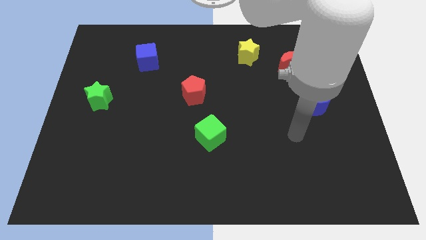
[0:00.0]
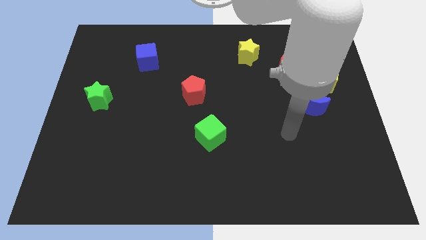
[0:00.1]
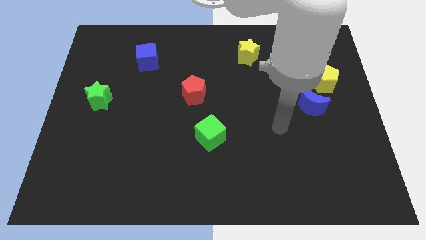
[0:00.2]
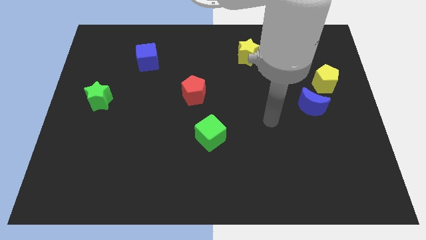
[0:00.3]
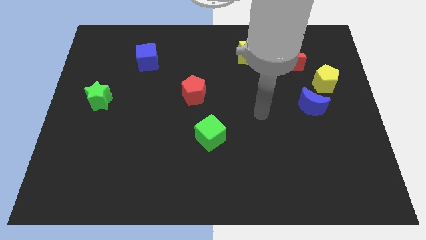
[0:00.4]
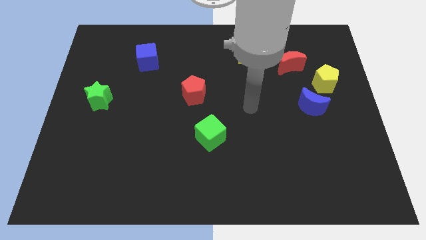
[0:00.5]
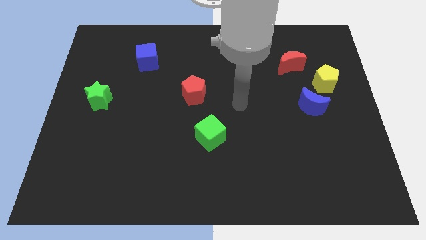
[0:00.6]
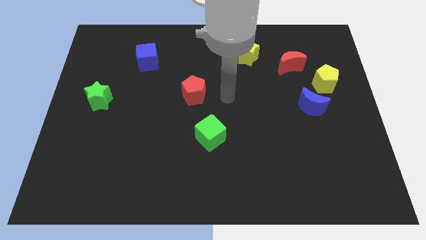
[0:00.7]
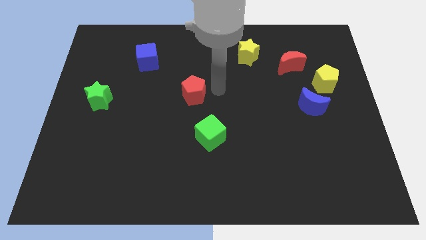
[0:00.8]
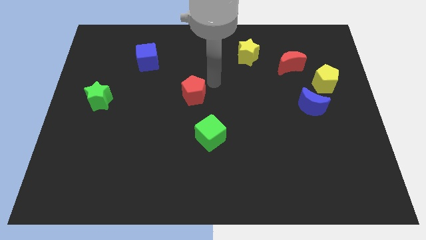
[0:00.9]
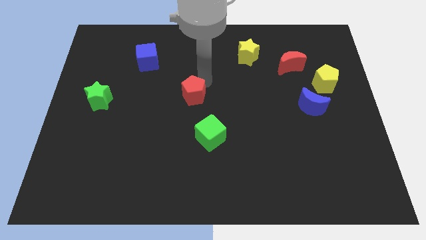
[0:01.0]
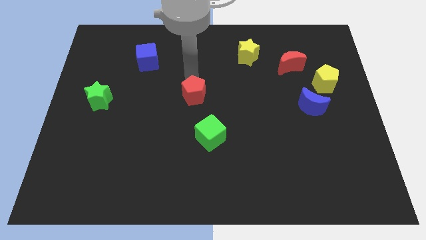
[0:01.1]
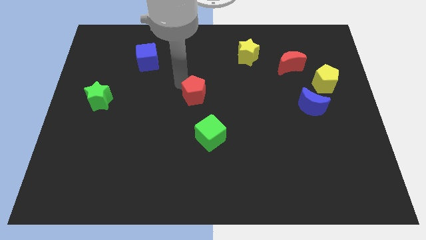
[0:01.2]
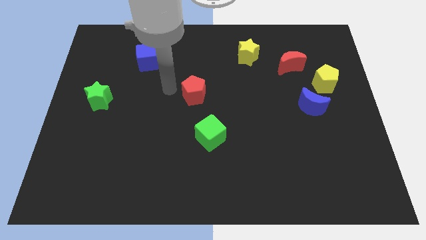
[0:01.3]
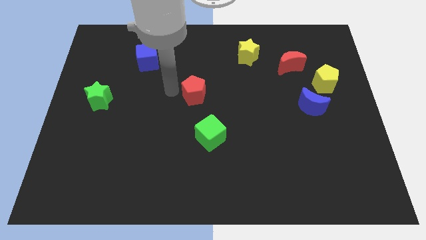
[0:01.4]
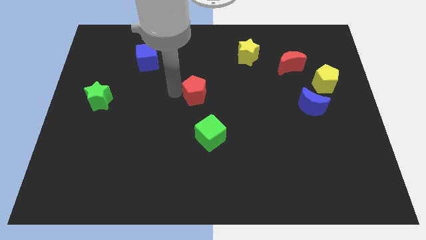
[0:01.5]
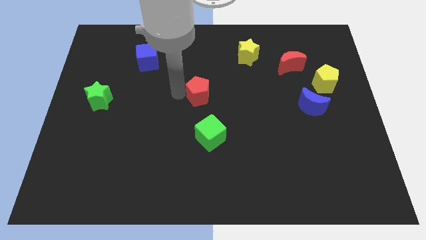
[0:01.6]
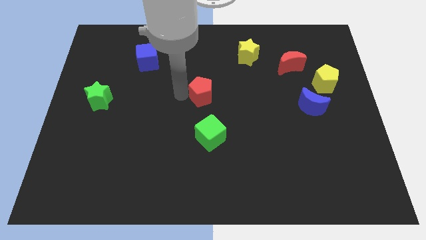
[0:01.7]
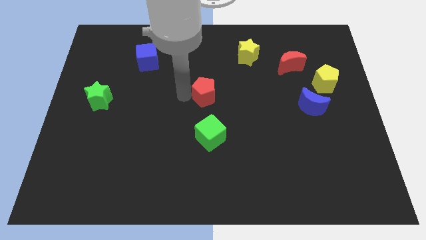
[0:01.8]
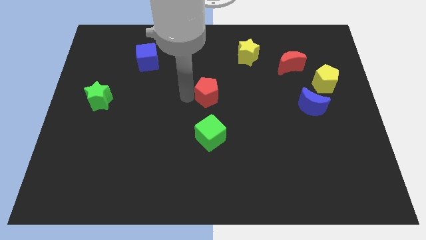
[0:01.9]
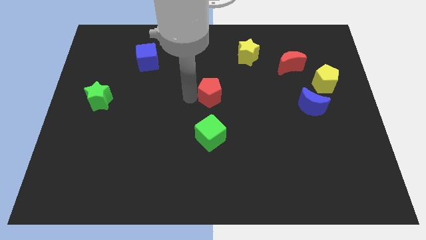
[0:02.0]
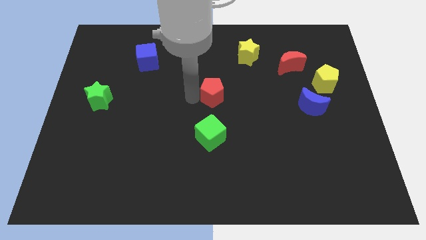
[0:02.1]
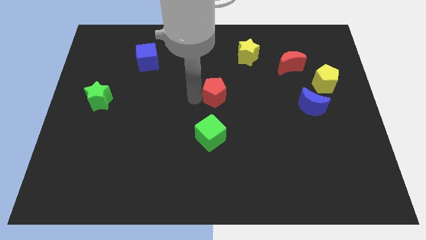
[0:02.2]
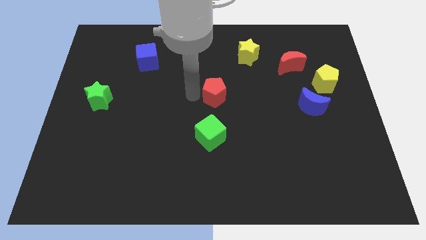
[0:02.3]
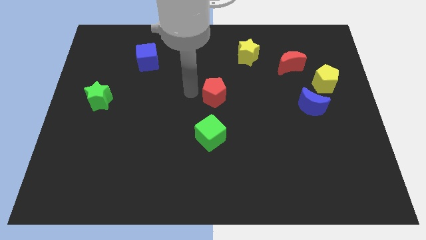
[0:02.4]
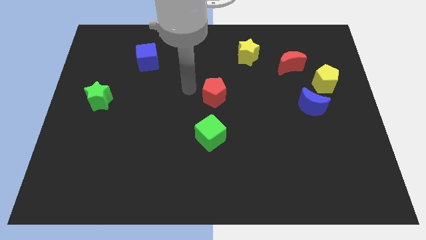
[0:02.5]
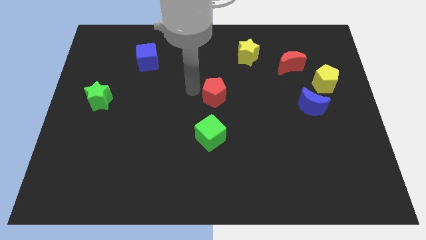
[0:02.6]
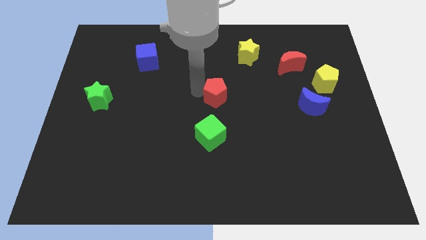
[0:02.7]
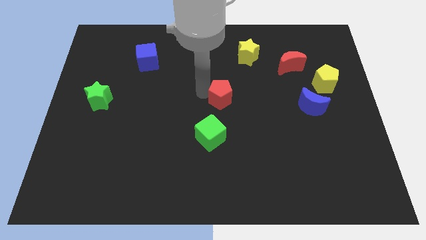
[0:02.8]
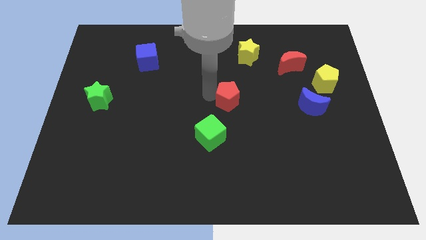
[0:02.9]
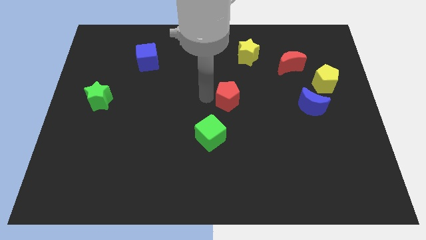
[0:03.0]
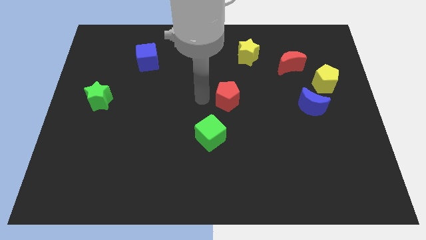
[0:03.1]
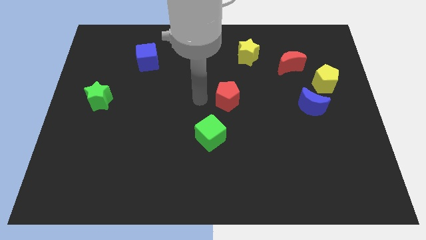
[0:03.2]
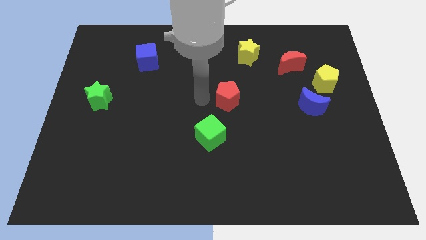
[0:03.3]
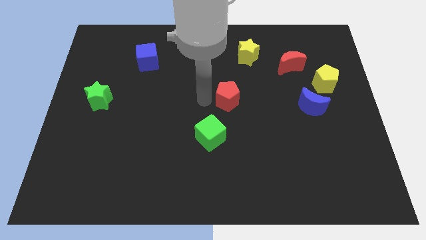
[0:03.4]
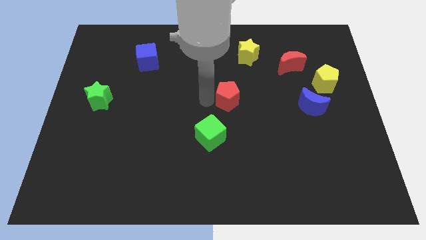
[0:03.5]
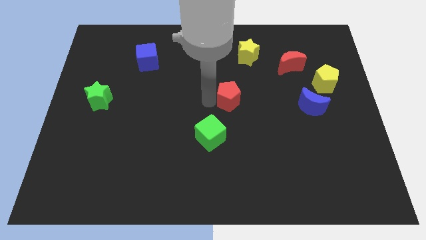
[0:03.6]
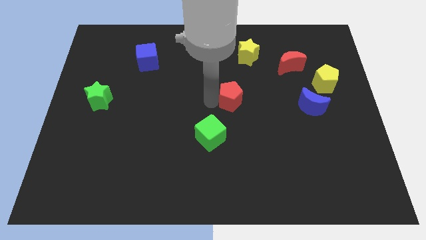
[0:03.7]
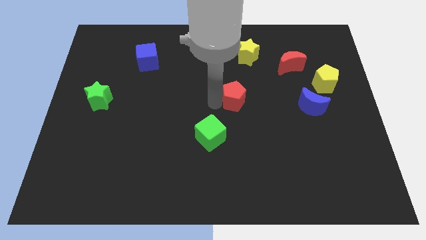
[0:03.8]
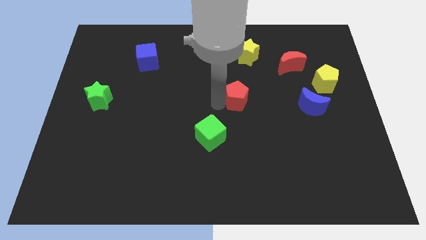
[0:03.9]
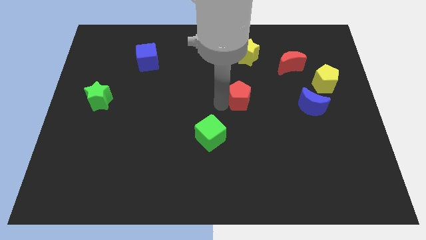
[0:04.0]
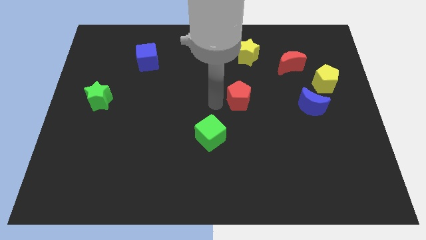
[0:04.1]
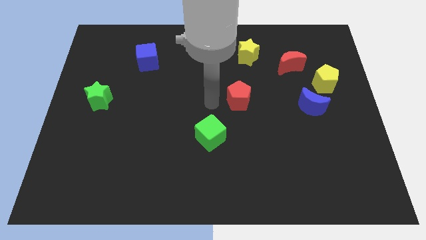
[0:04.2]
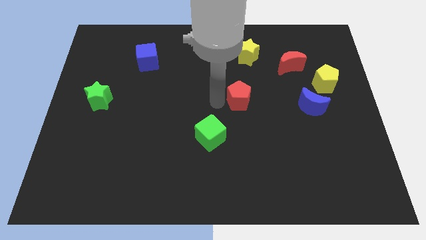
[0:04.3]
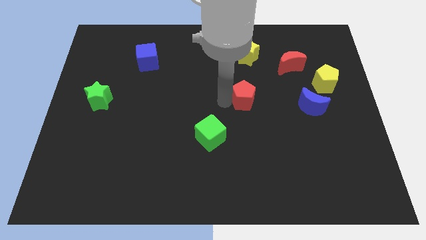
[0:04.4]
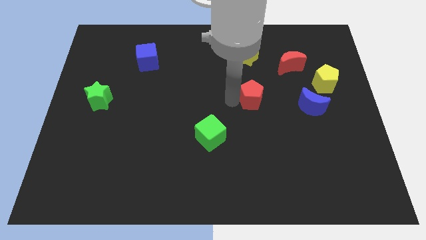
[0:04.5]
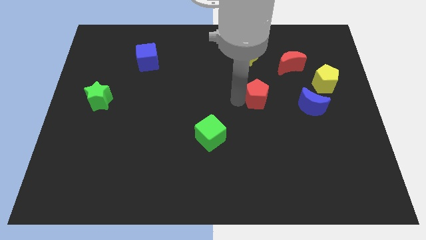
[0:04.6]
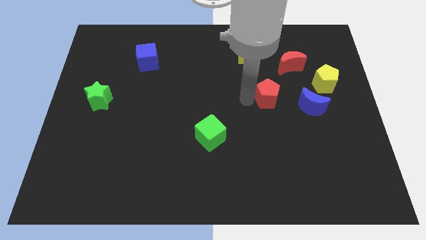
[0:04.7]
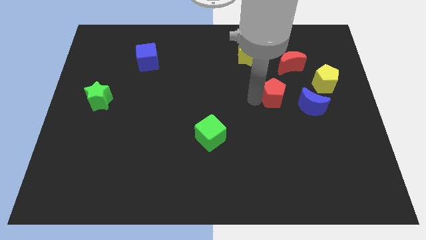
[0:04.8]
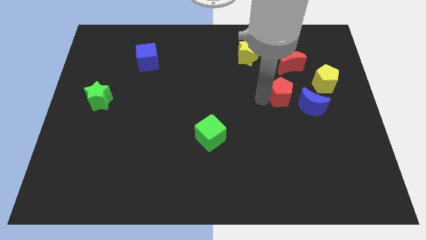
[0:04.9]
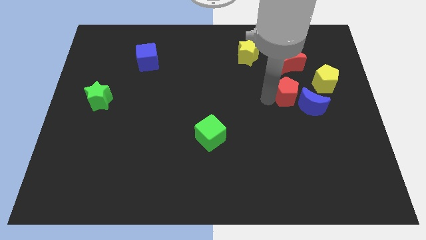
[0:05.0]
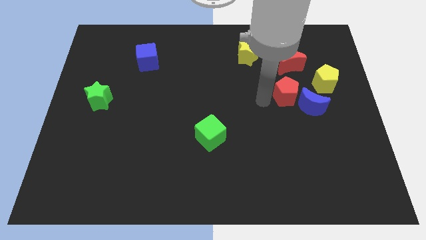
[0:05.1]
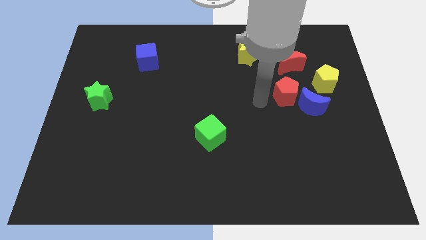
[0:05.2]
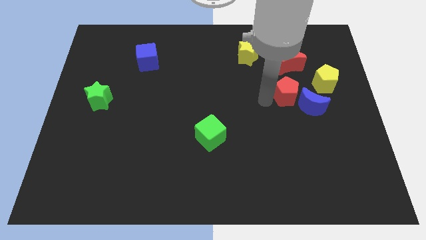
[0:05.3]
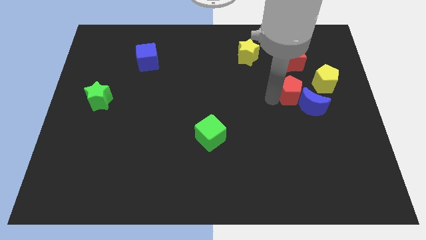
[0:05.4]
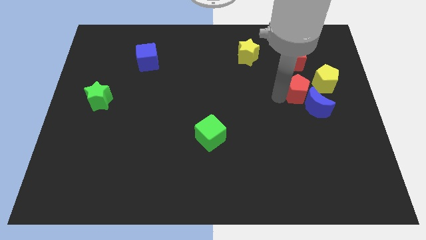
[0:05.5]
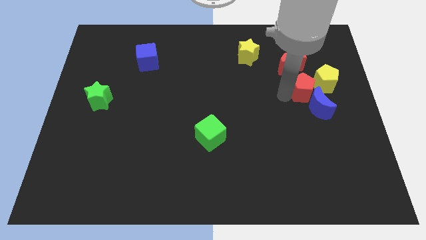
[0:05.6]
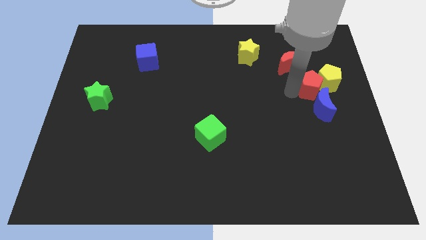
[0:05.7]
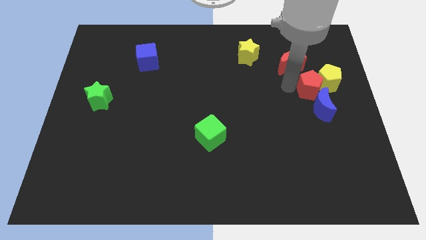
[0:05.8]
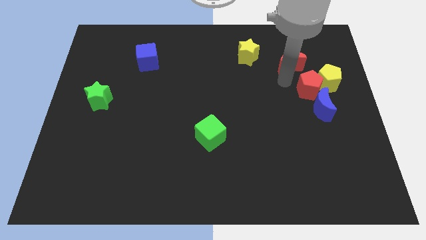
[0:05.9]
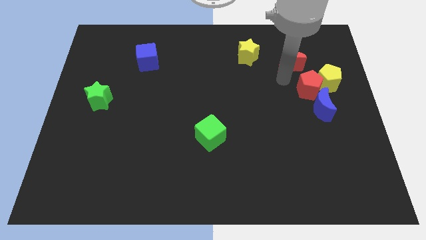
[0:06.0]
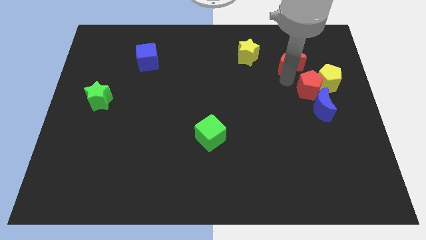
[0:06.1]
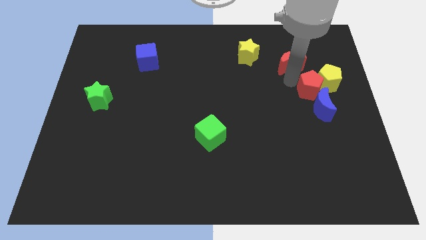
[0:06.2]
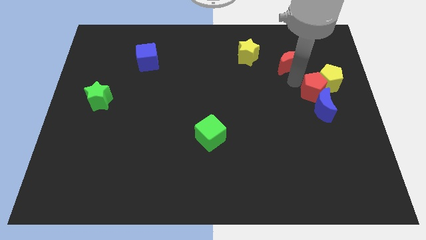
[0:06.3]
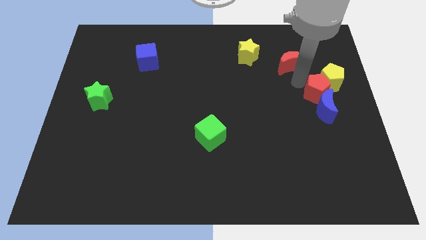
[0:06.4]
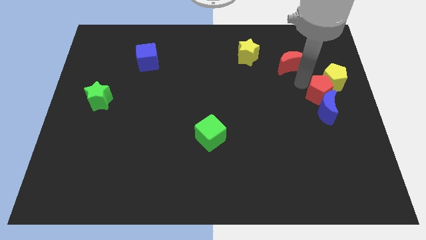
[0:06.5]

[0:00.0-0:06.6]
push the red pentagon to the right side of the board

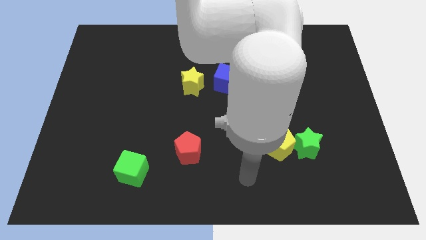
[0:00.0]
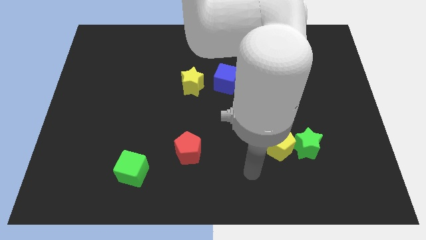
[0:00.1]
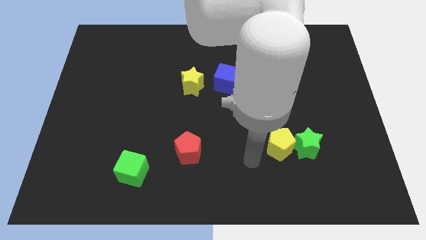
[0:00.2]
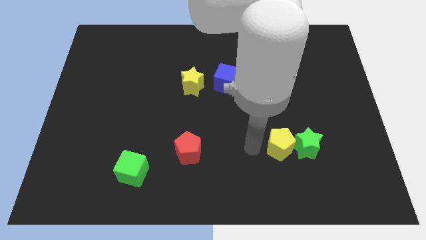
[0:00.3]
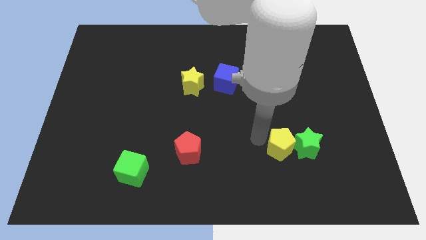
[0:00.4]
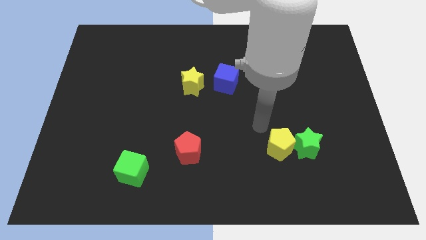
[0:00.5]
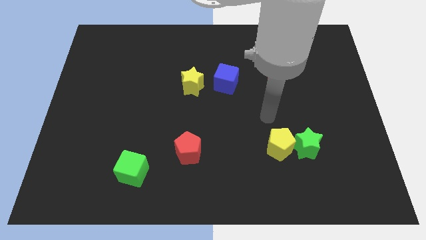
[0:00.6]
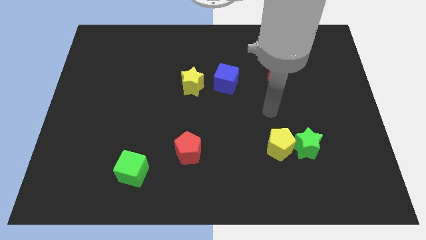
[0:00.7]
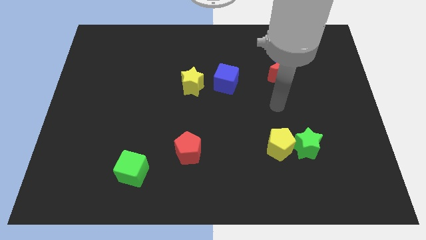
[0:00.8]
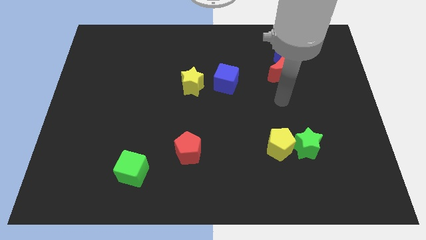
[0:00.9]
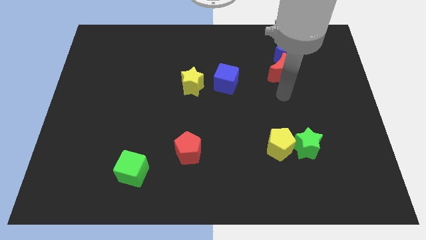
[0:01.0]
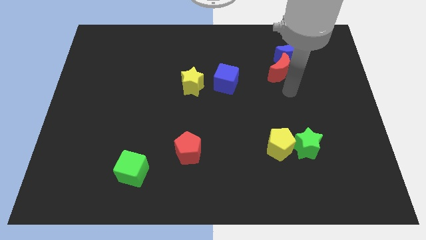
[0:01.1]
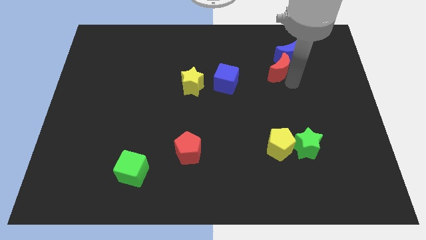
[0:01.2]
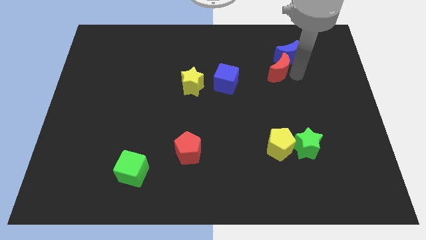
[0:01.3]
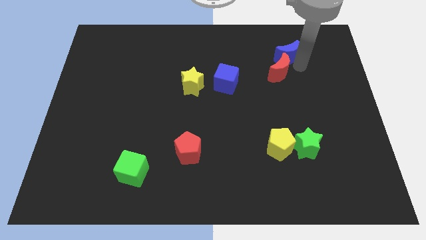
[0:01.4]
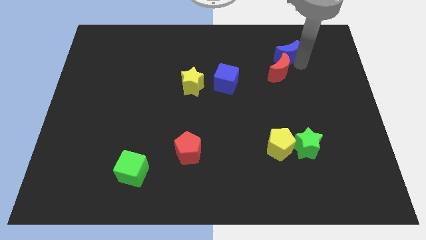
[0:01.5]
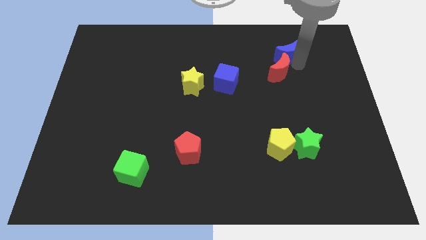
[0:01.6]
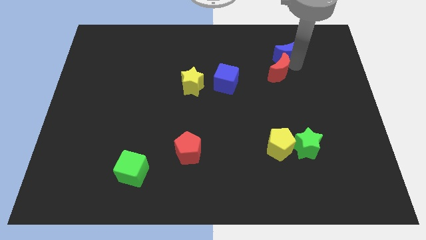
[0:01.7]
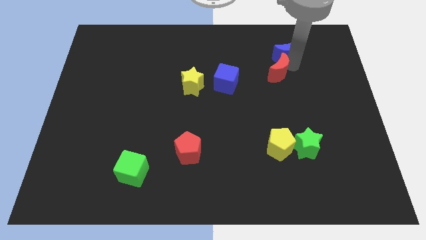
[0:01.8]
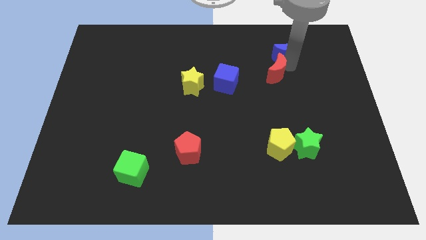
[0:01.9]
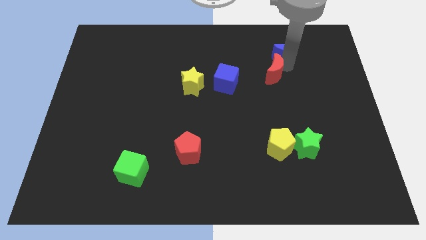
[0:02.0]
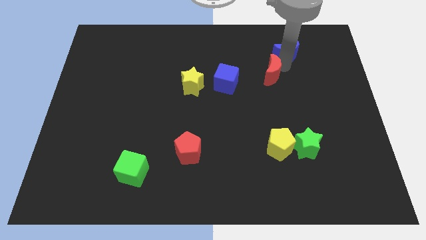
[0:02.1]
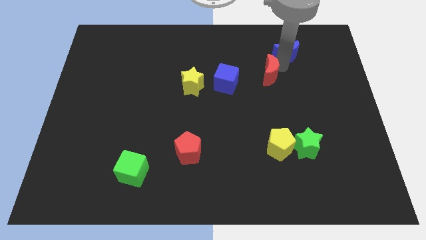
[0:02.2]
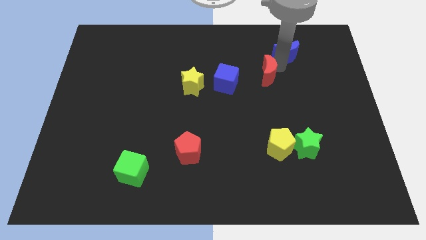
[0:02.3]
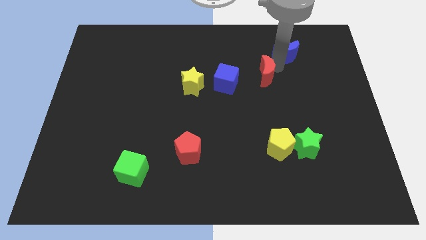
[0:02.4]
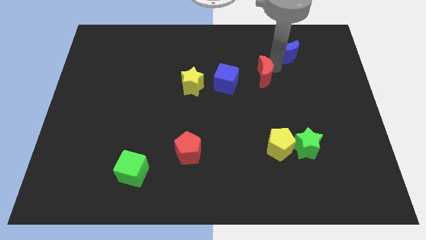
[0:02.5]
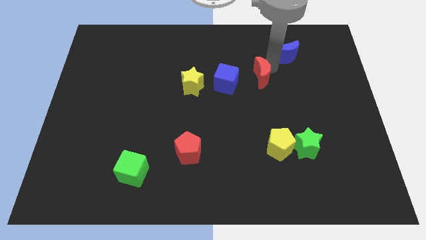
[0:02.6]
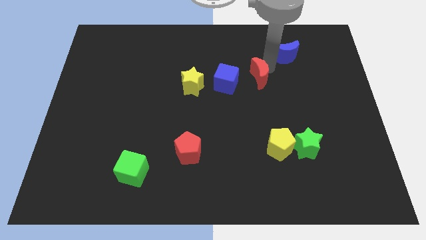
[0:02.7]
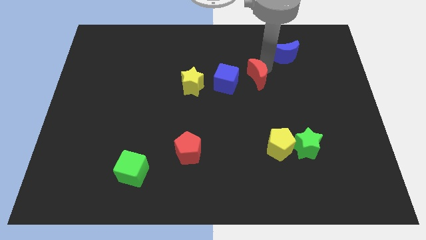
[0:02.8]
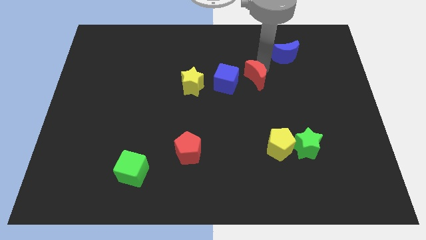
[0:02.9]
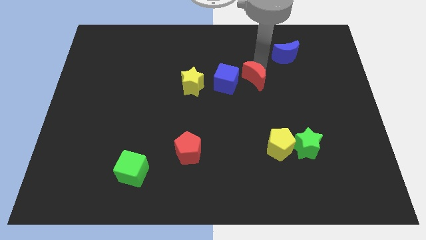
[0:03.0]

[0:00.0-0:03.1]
push the red moon to the center
